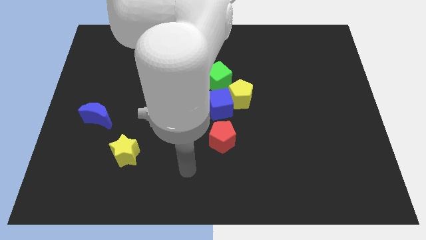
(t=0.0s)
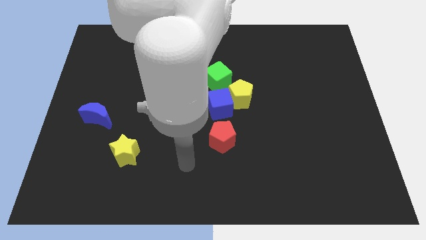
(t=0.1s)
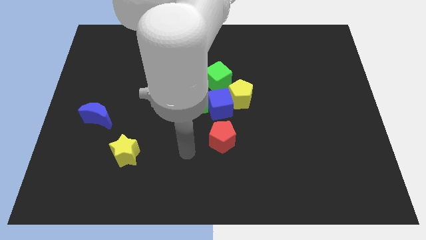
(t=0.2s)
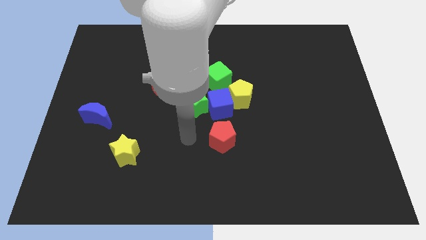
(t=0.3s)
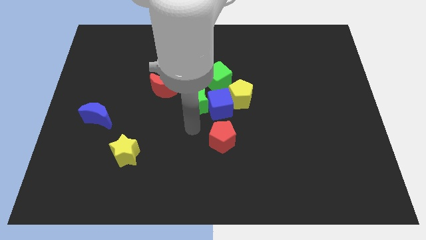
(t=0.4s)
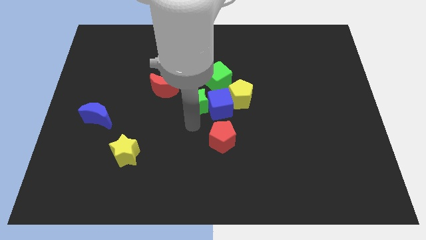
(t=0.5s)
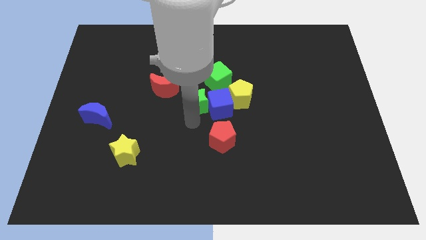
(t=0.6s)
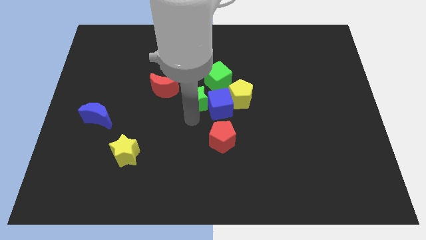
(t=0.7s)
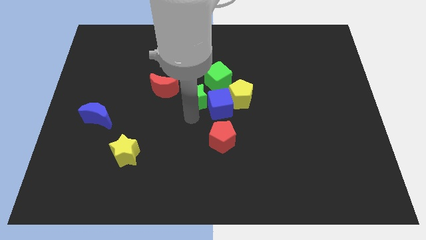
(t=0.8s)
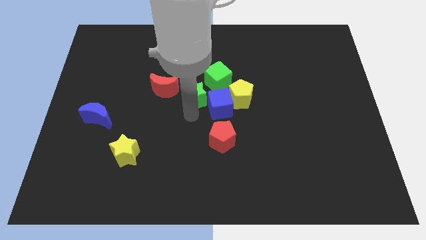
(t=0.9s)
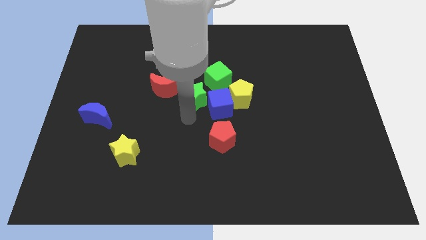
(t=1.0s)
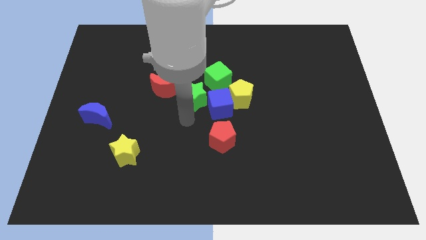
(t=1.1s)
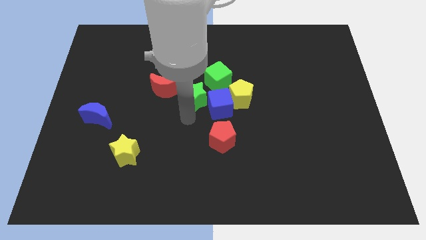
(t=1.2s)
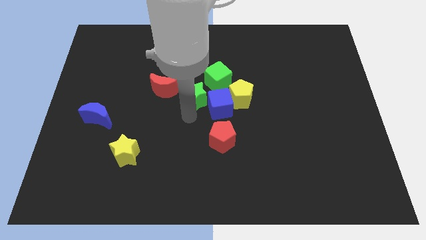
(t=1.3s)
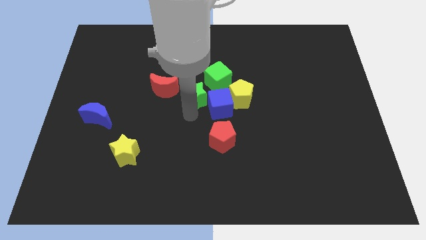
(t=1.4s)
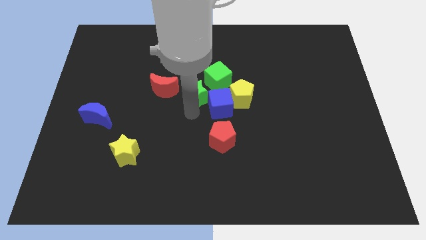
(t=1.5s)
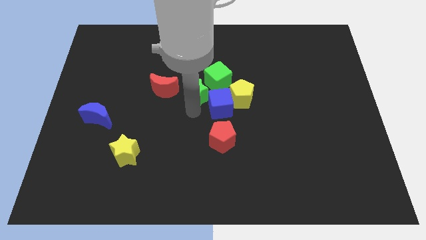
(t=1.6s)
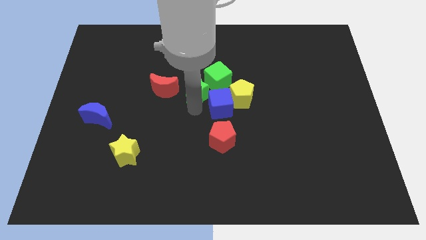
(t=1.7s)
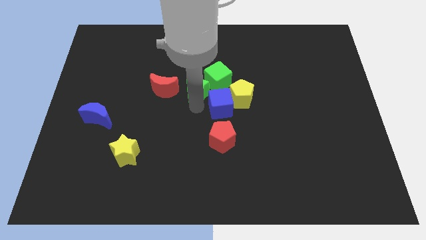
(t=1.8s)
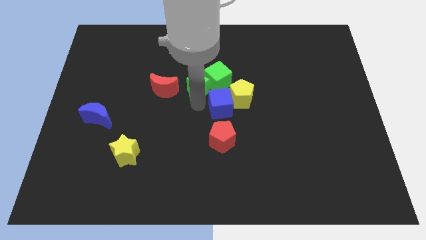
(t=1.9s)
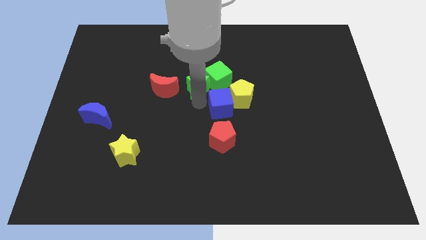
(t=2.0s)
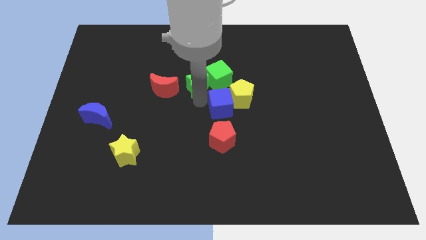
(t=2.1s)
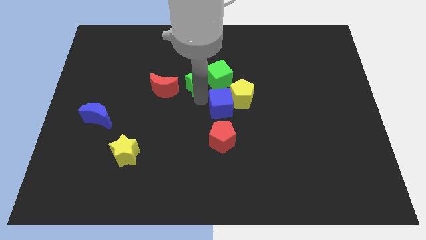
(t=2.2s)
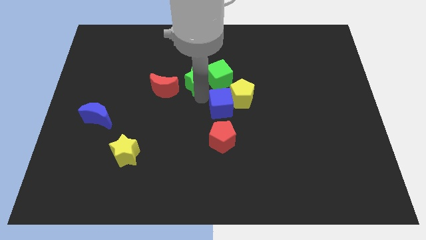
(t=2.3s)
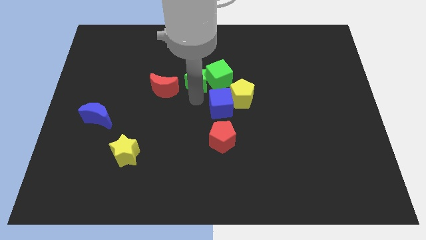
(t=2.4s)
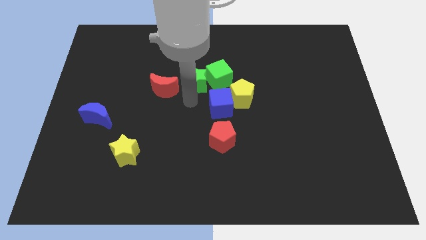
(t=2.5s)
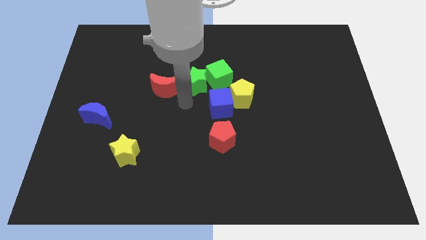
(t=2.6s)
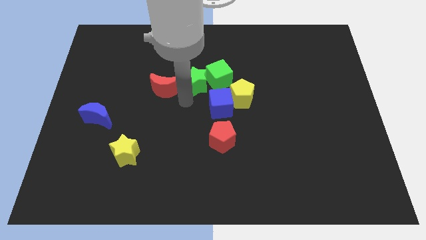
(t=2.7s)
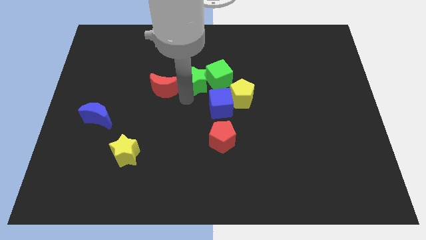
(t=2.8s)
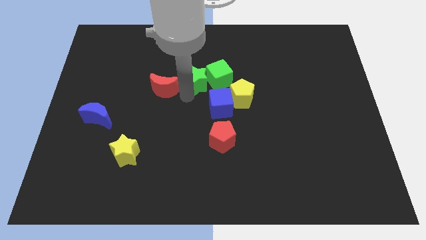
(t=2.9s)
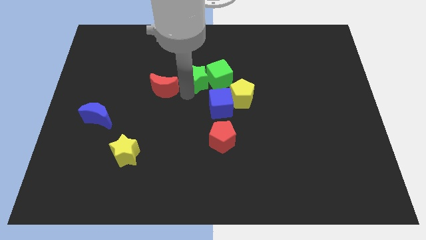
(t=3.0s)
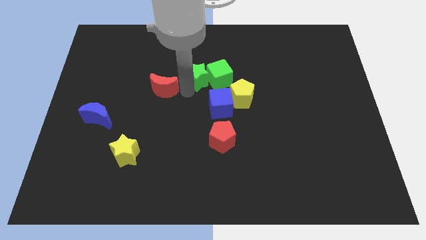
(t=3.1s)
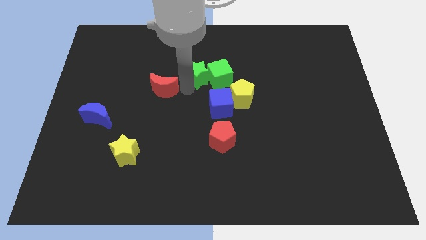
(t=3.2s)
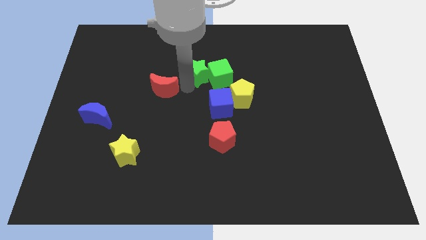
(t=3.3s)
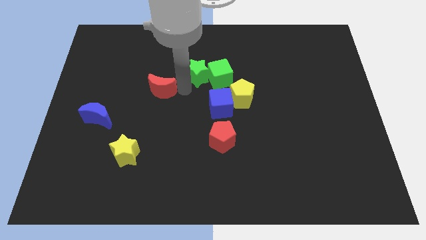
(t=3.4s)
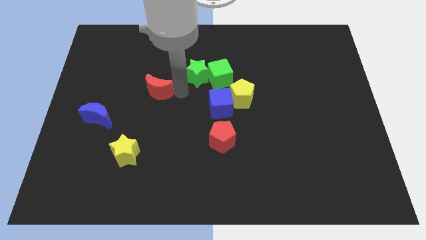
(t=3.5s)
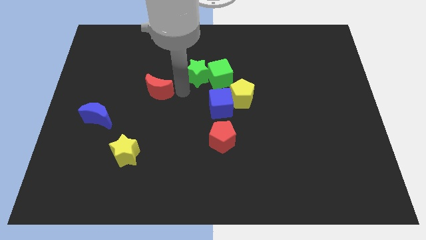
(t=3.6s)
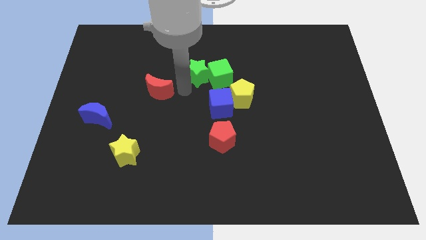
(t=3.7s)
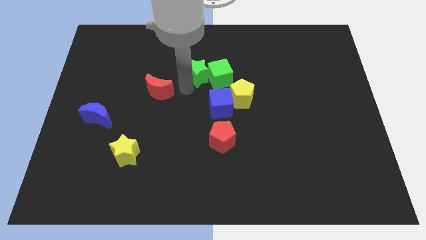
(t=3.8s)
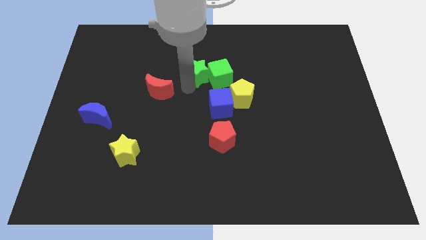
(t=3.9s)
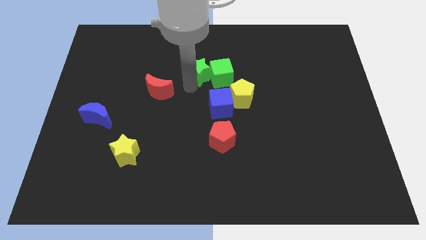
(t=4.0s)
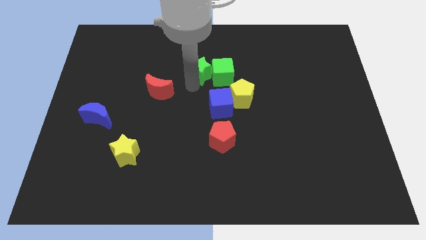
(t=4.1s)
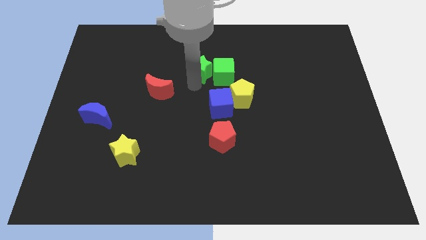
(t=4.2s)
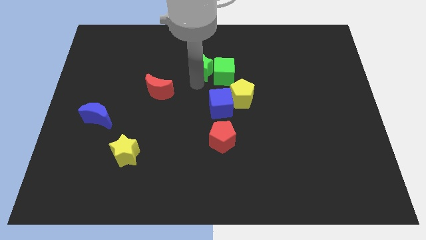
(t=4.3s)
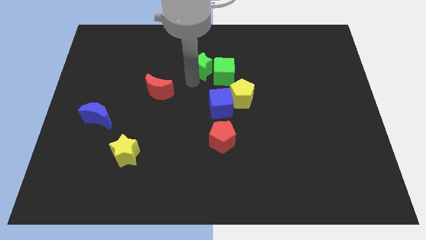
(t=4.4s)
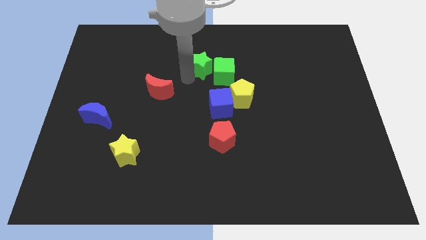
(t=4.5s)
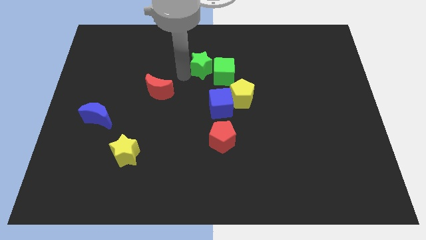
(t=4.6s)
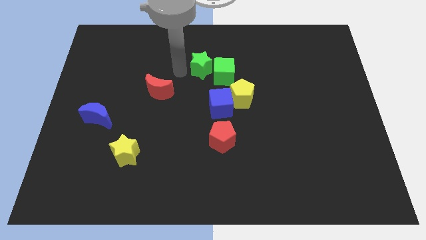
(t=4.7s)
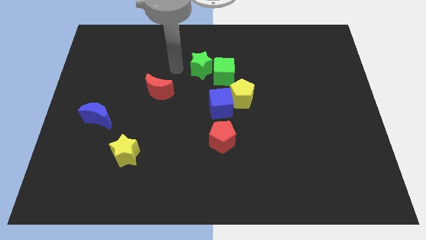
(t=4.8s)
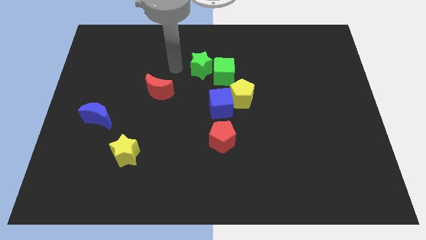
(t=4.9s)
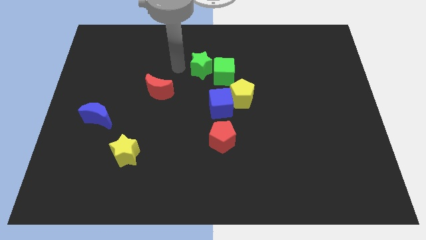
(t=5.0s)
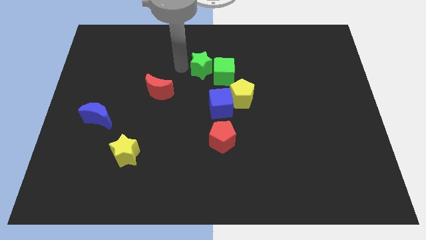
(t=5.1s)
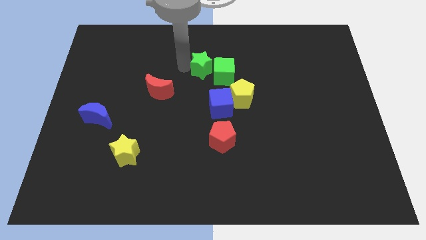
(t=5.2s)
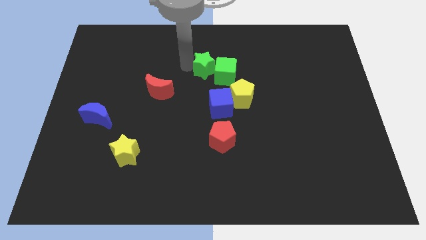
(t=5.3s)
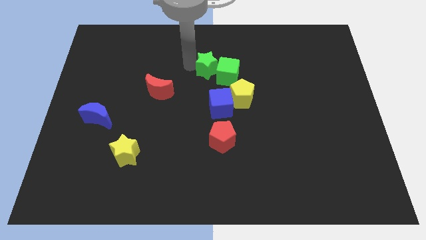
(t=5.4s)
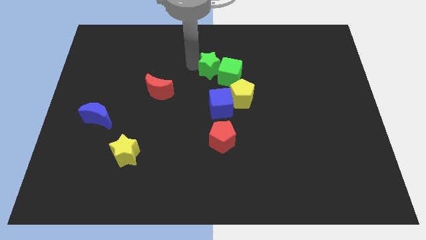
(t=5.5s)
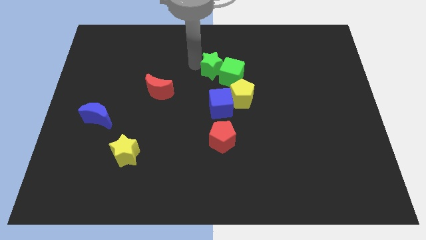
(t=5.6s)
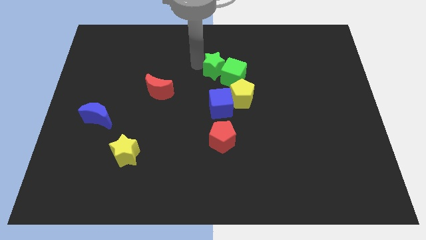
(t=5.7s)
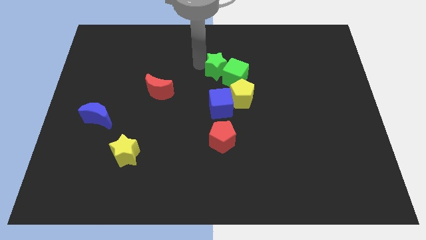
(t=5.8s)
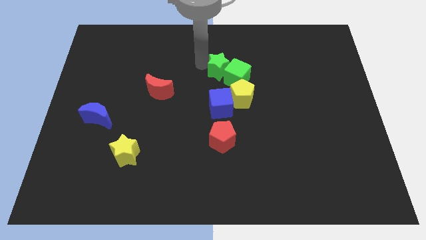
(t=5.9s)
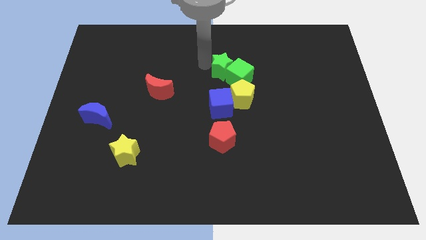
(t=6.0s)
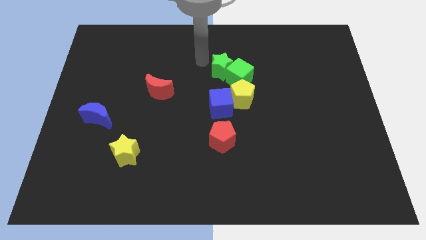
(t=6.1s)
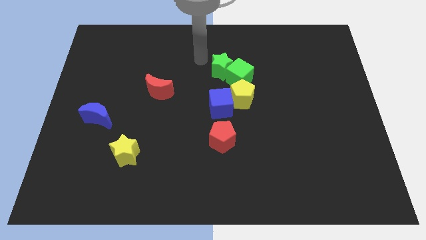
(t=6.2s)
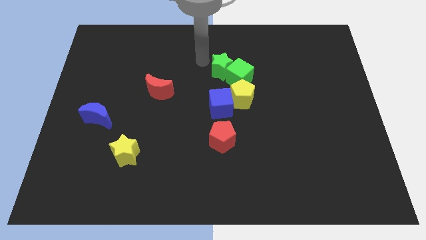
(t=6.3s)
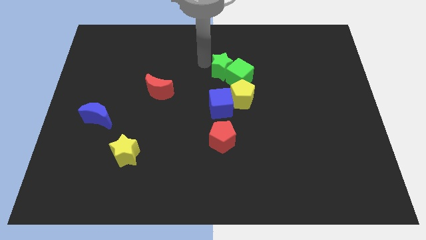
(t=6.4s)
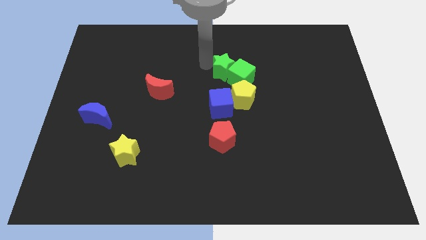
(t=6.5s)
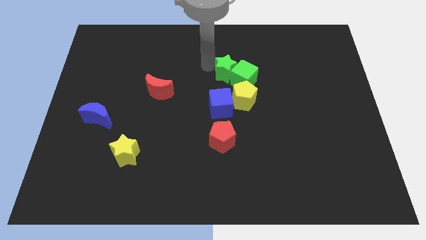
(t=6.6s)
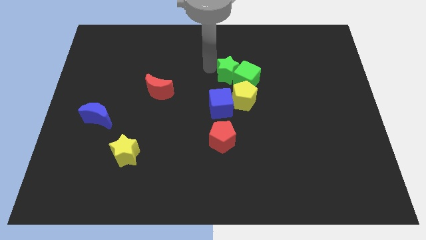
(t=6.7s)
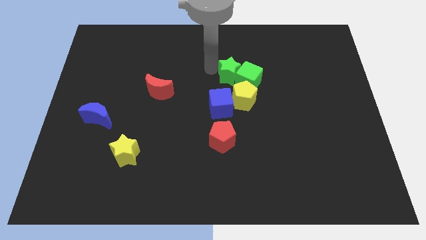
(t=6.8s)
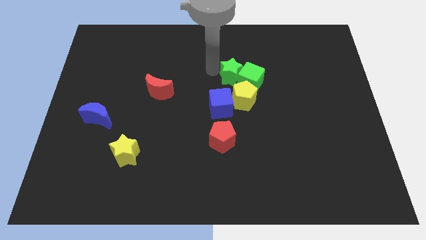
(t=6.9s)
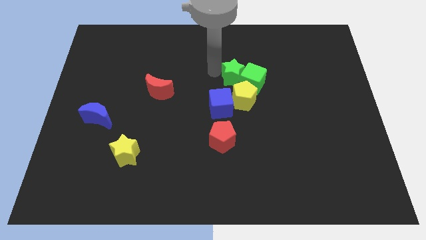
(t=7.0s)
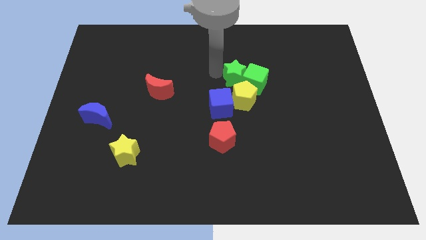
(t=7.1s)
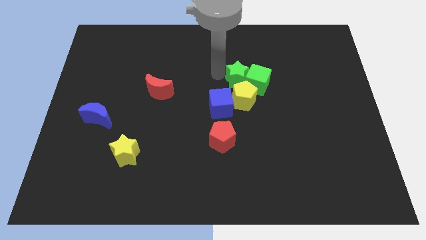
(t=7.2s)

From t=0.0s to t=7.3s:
move the green star a little to the right

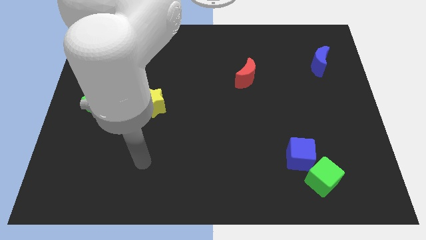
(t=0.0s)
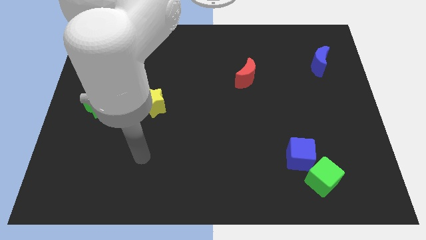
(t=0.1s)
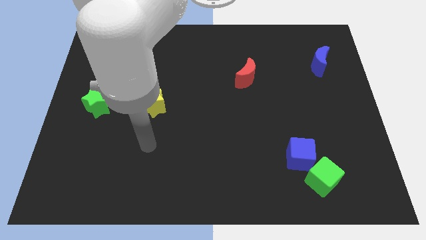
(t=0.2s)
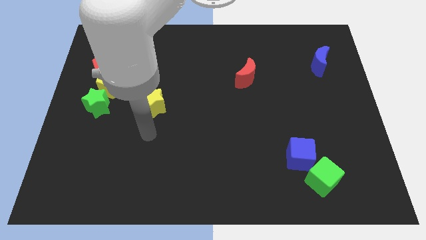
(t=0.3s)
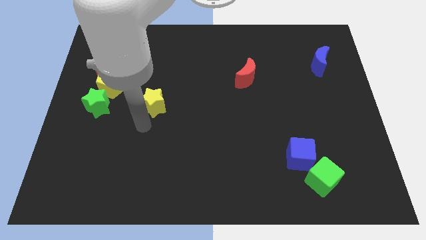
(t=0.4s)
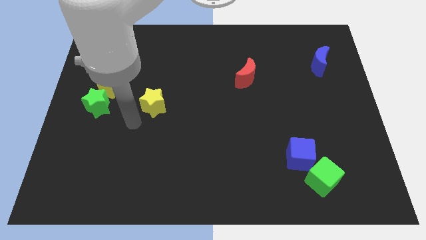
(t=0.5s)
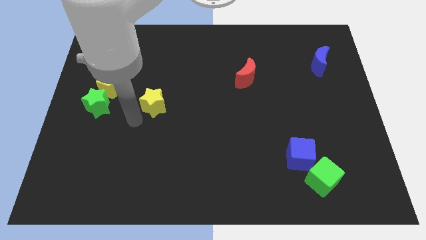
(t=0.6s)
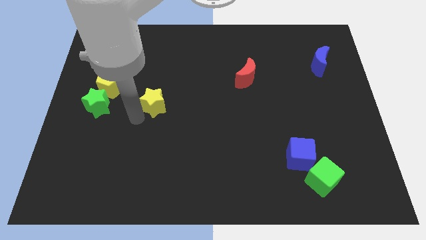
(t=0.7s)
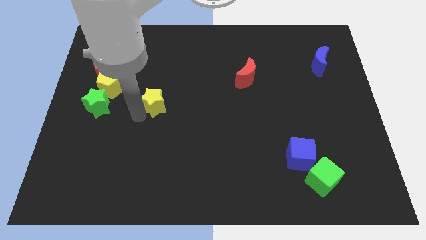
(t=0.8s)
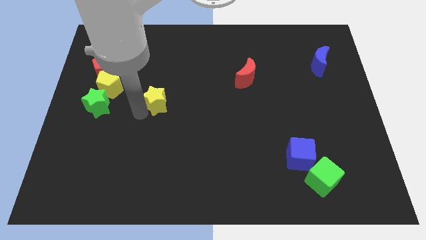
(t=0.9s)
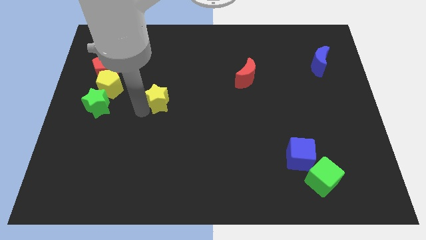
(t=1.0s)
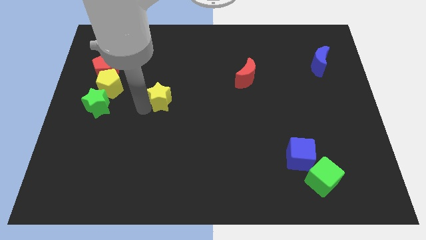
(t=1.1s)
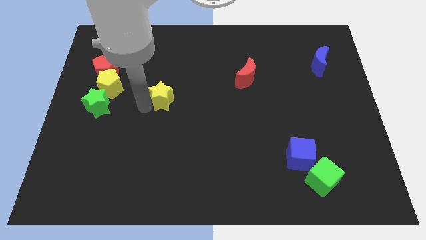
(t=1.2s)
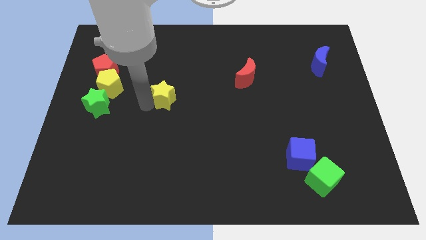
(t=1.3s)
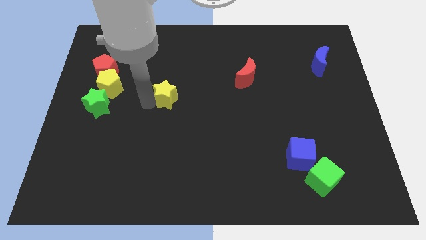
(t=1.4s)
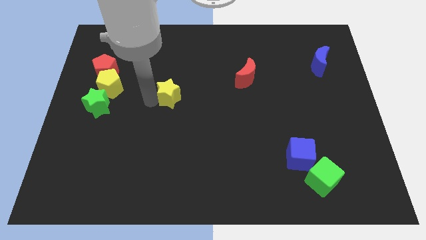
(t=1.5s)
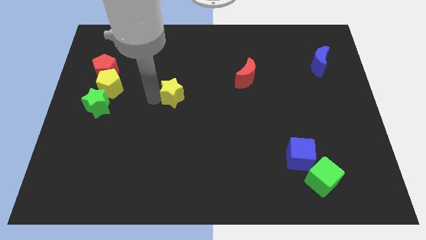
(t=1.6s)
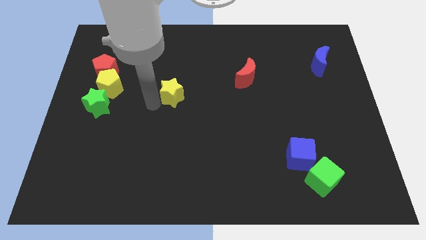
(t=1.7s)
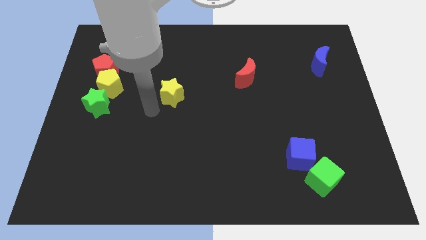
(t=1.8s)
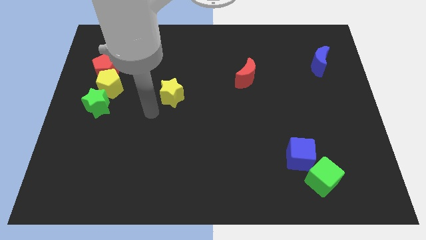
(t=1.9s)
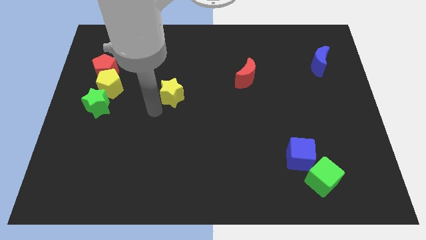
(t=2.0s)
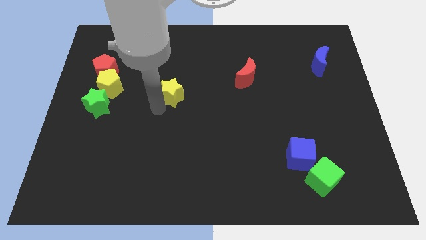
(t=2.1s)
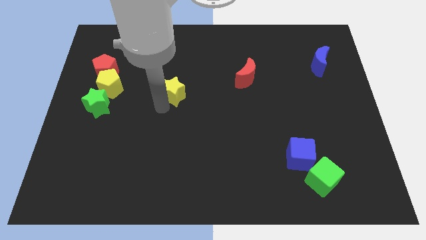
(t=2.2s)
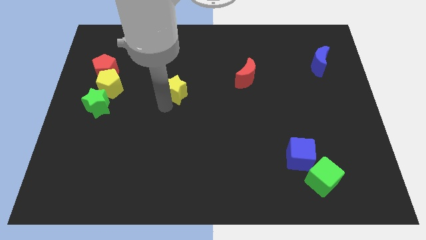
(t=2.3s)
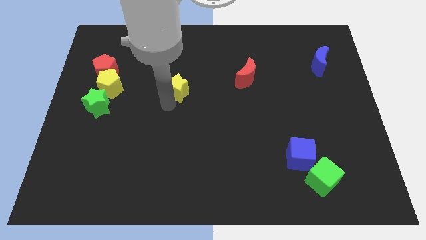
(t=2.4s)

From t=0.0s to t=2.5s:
slightly slide the yellow star up and then right
